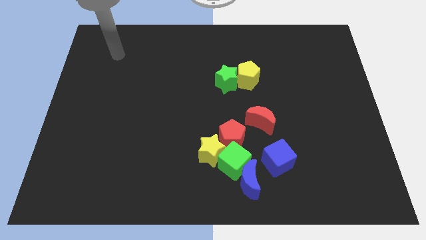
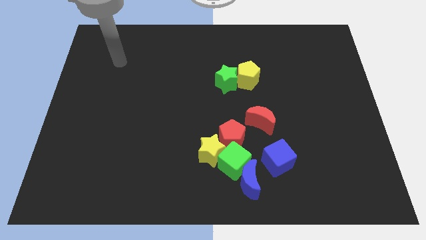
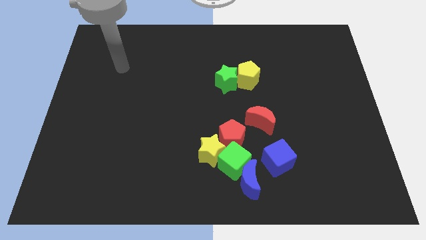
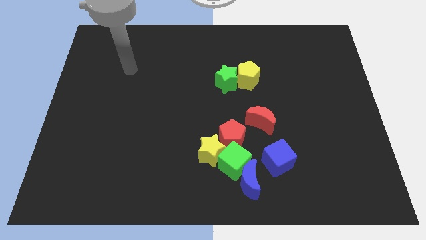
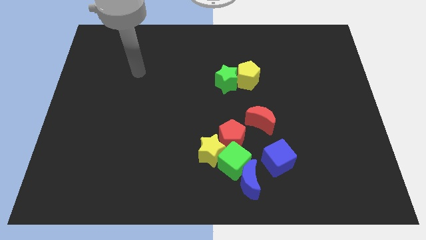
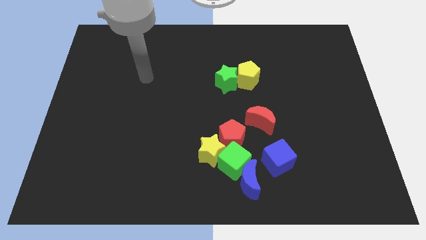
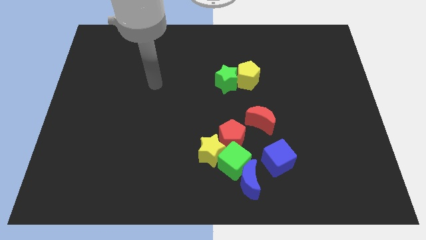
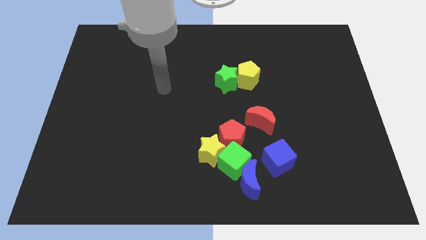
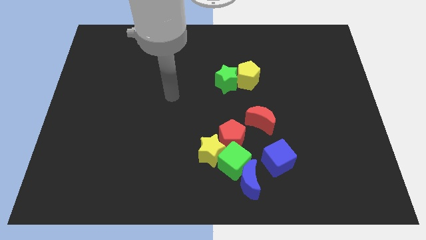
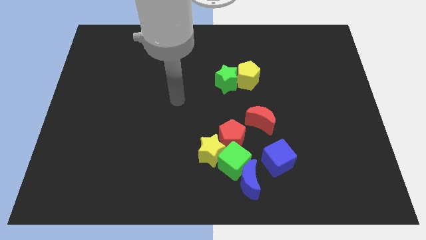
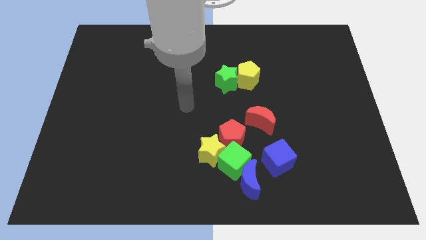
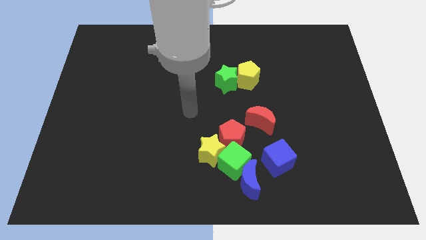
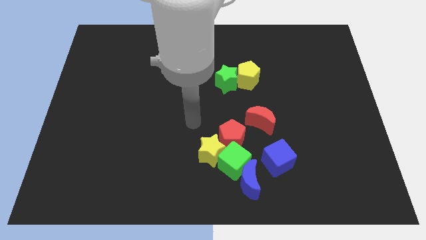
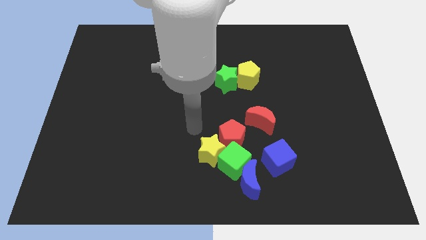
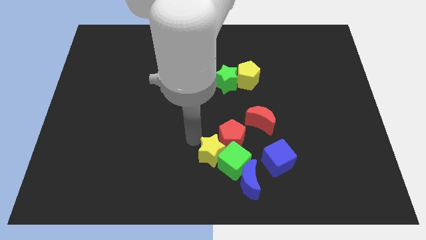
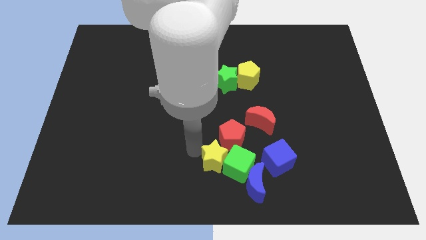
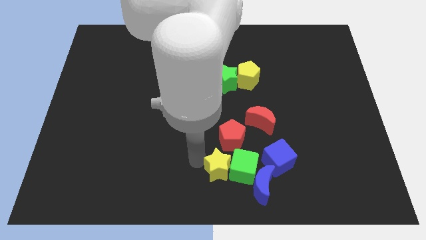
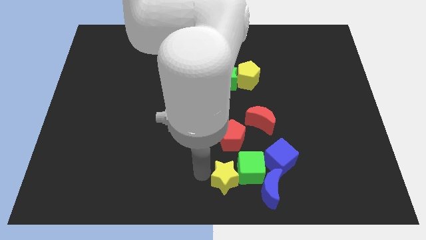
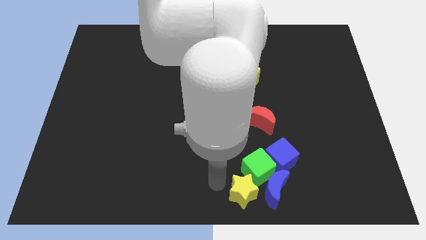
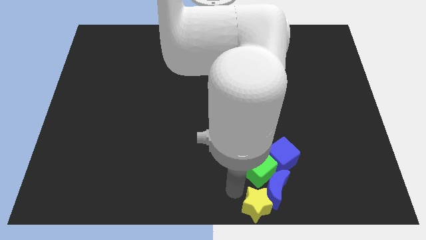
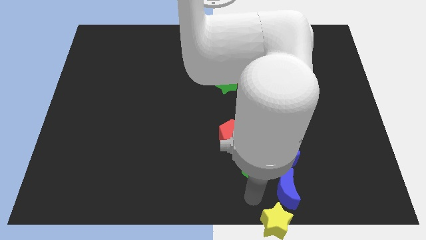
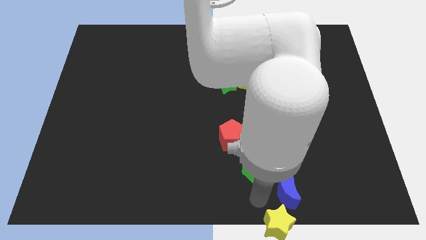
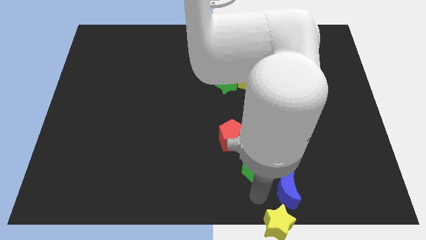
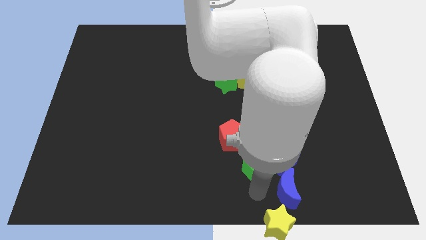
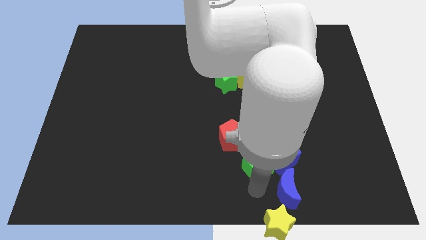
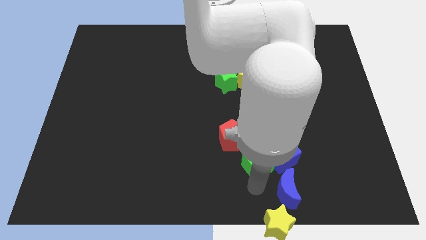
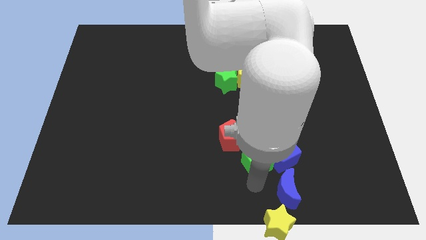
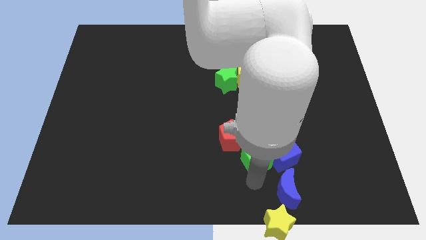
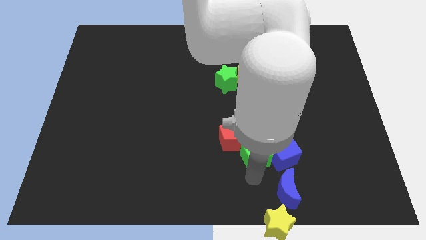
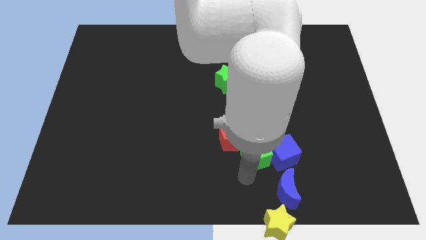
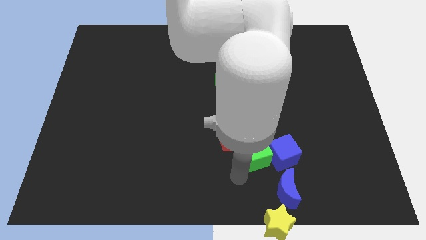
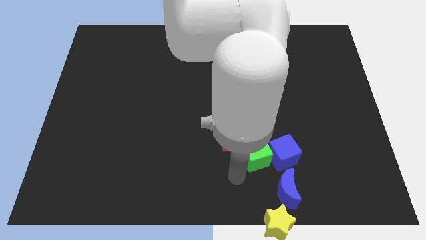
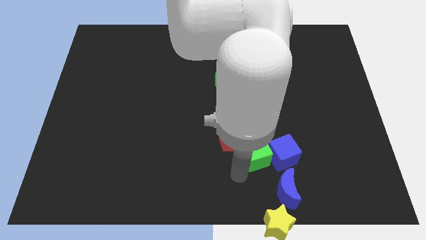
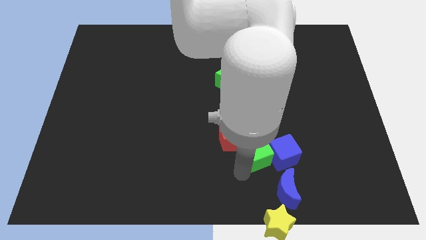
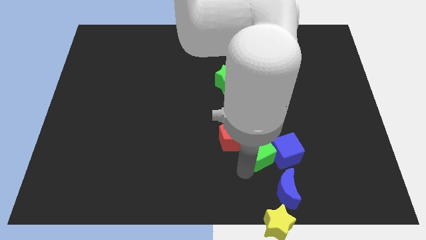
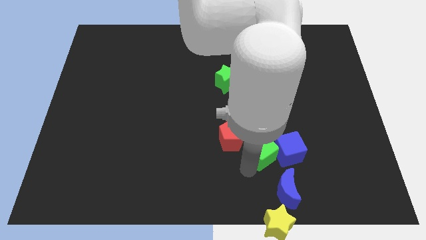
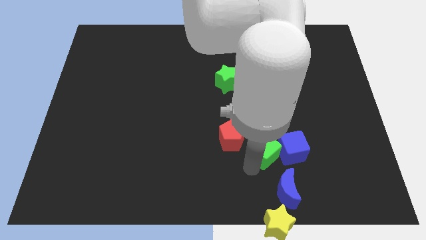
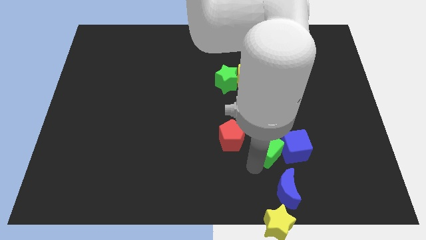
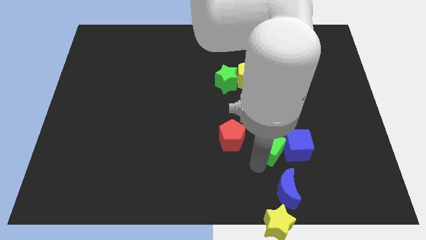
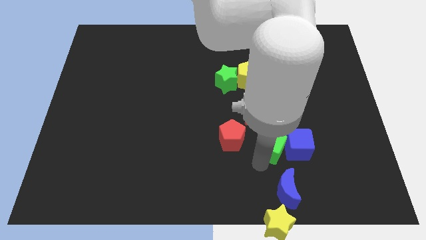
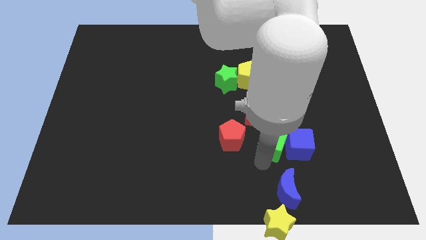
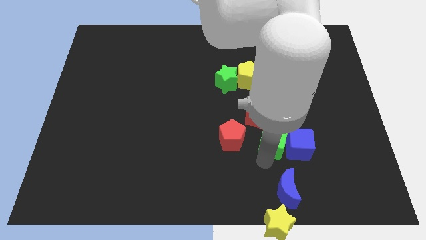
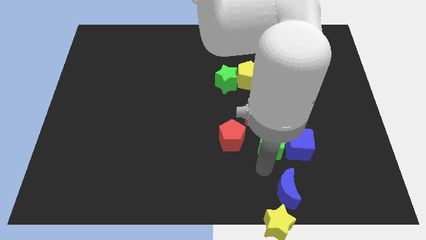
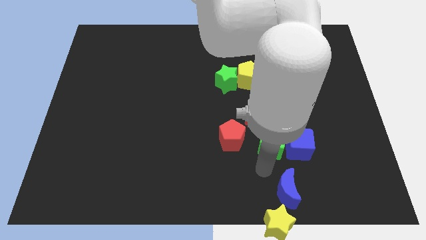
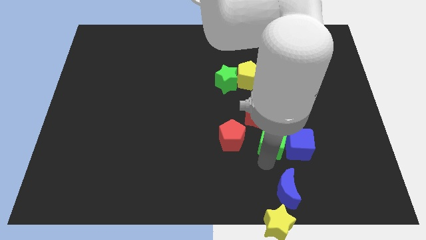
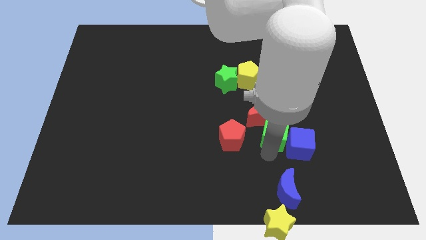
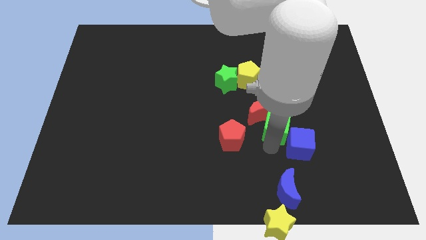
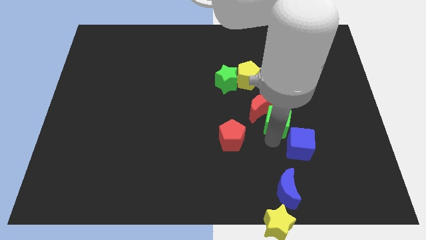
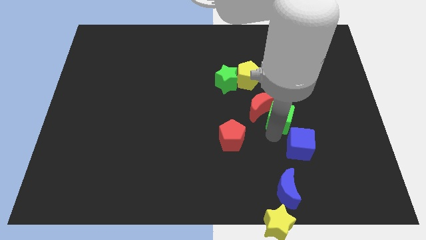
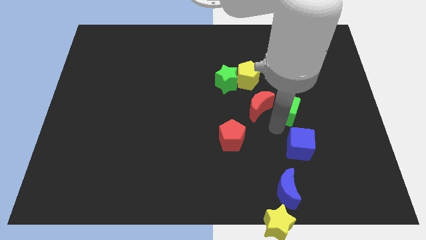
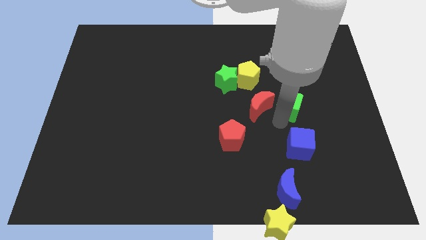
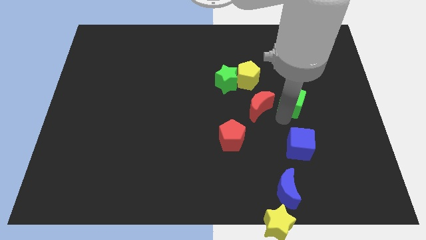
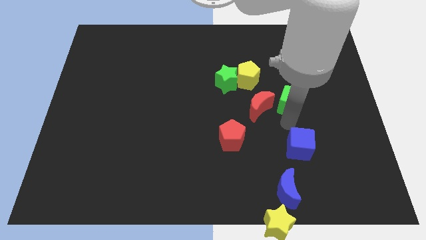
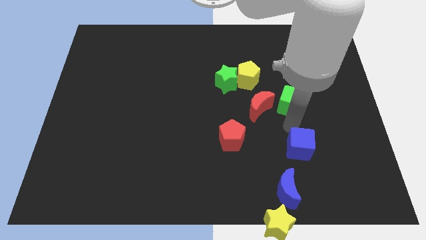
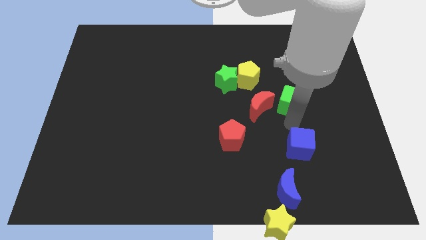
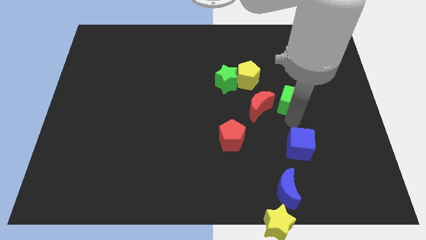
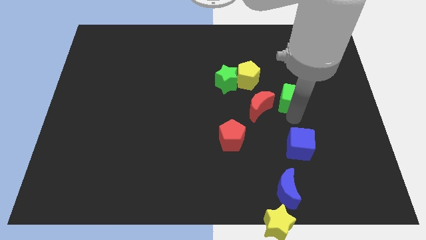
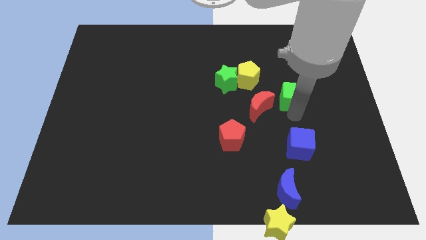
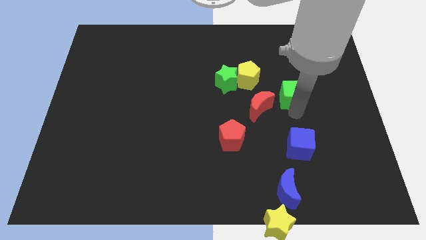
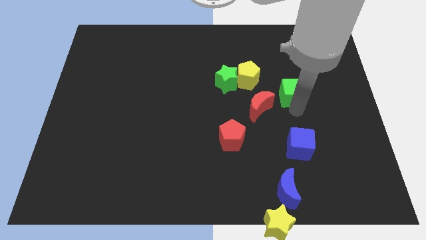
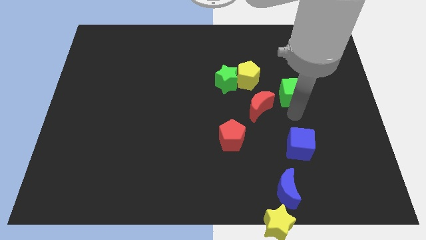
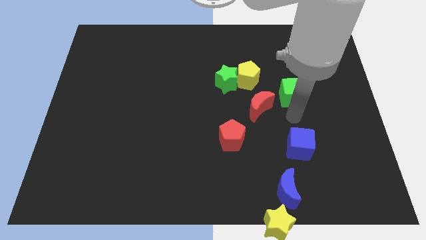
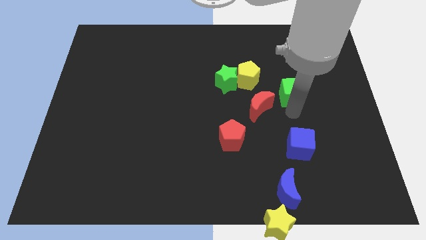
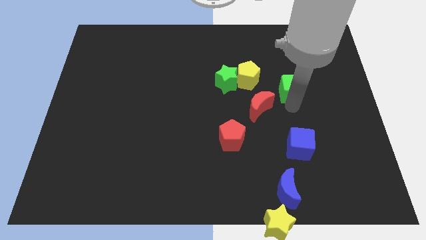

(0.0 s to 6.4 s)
slide the green cube just right of the yellow pentagon

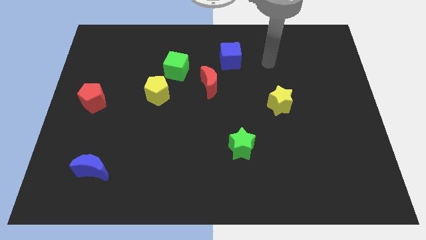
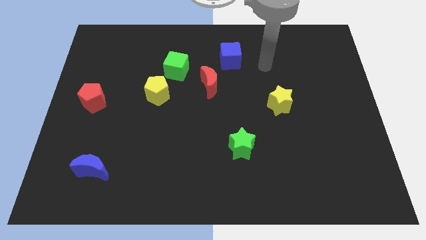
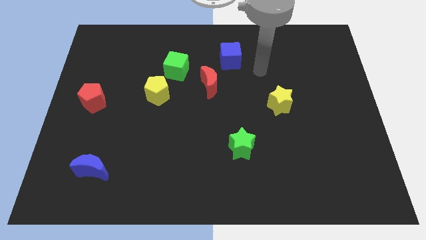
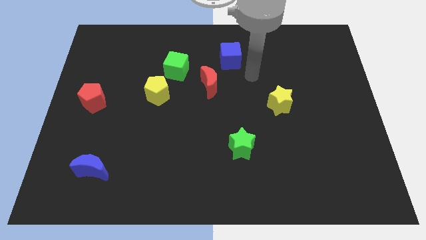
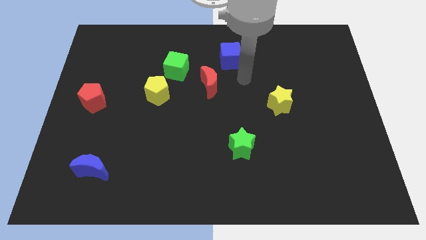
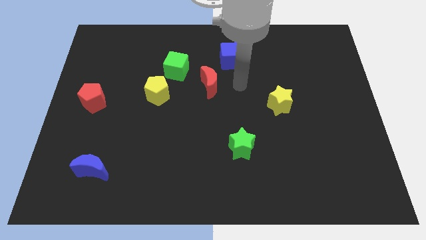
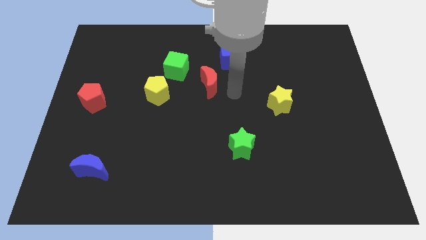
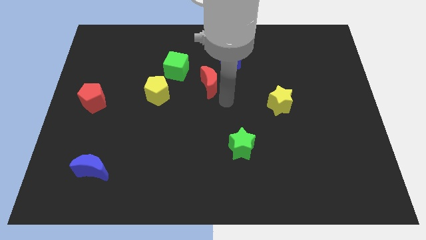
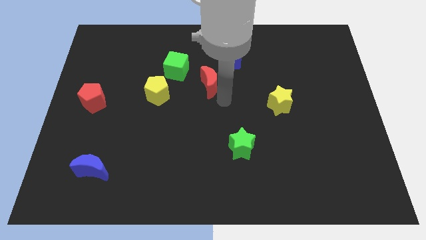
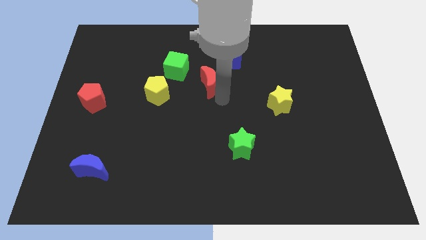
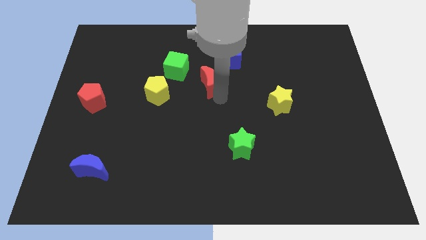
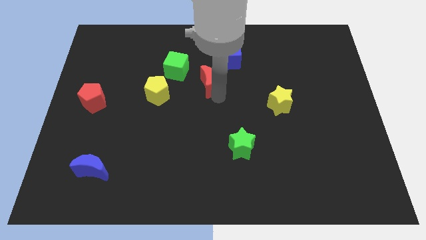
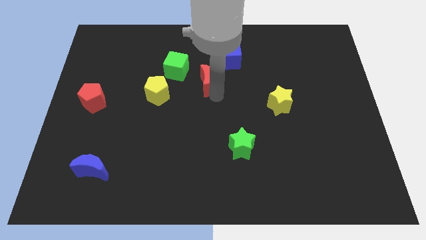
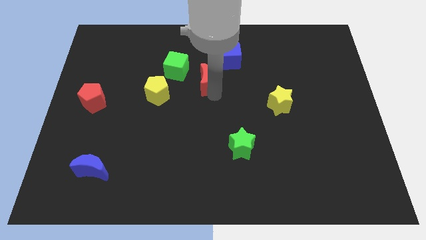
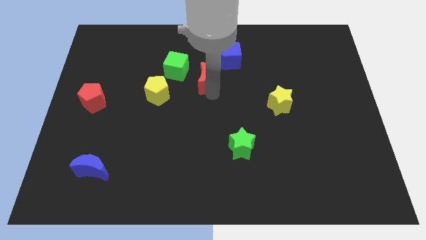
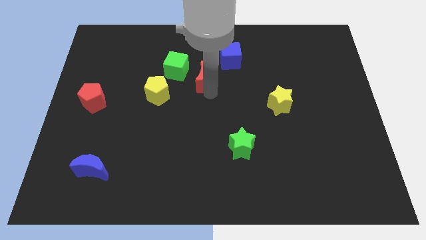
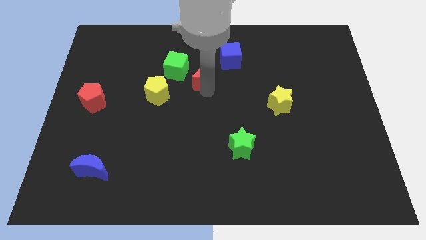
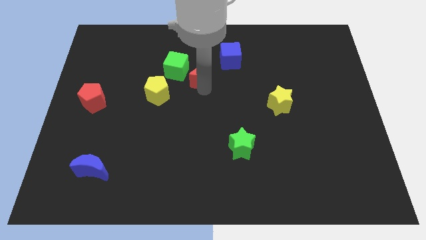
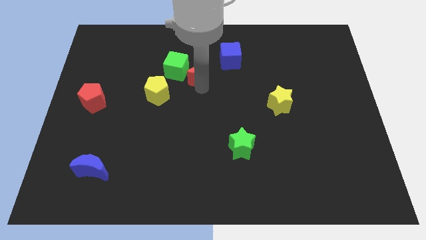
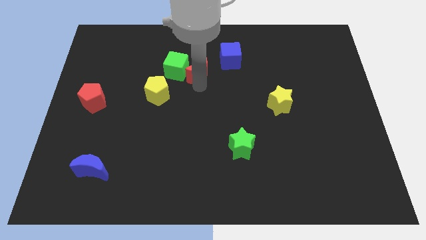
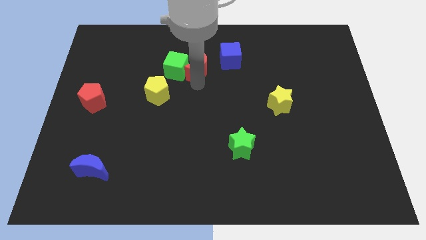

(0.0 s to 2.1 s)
push the red moon just left of the blue cube
